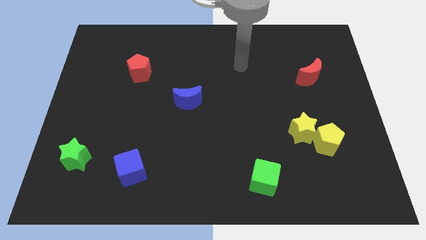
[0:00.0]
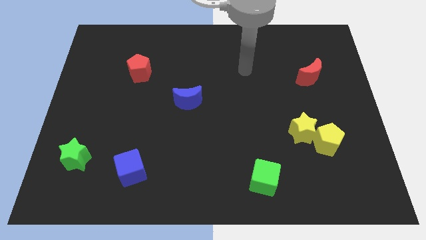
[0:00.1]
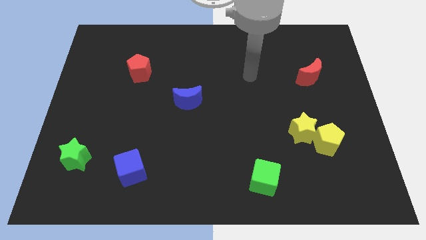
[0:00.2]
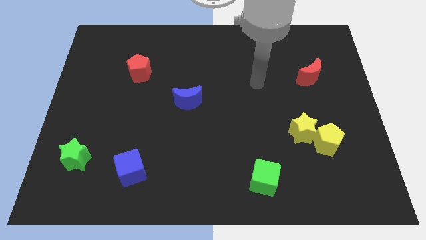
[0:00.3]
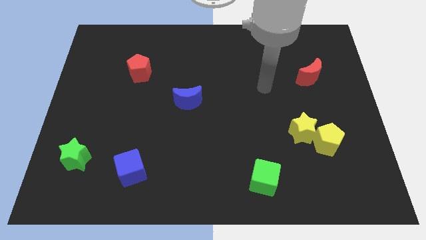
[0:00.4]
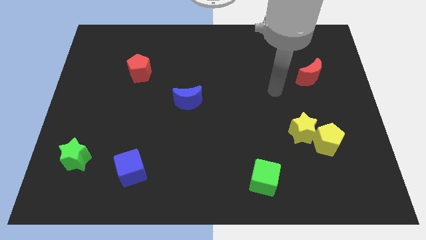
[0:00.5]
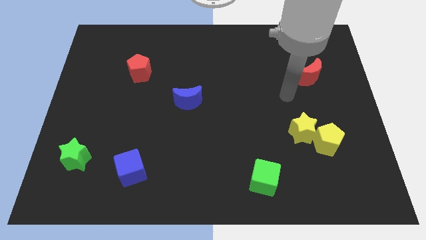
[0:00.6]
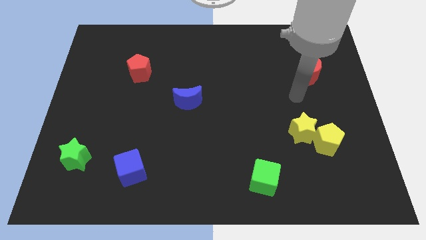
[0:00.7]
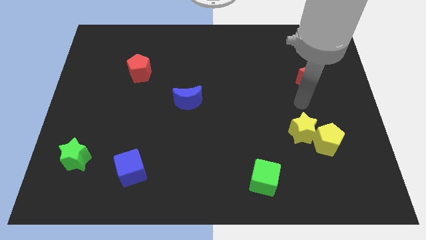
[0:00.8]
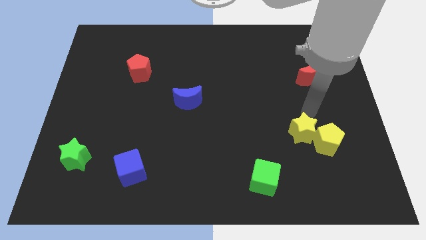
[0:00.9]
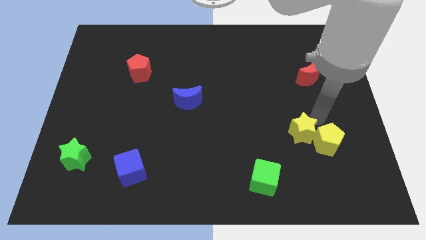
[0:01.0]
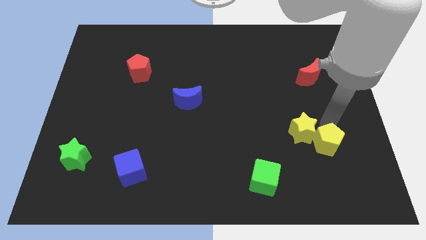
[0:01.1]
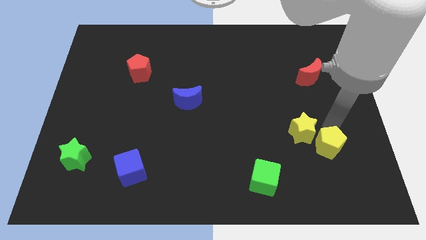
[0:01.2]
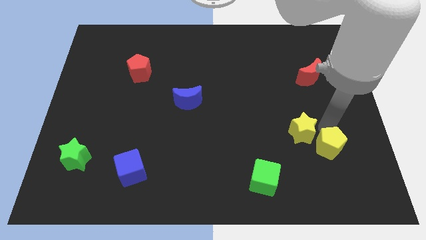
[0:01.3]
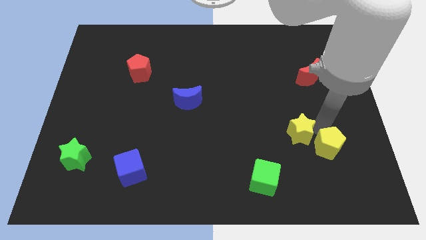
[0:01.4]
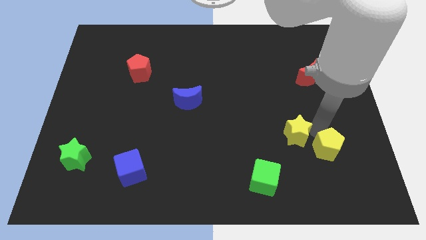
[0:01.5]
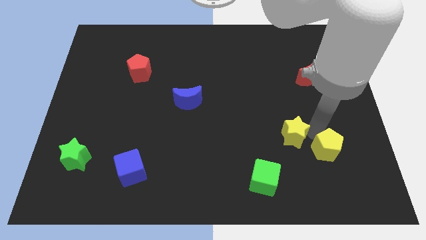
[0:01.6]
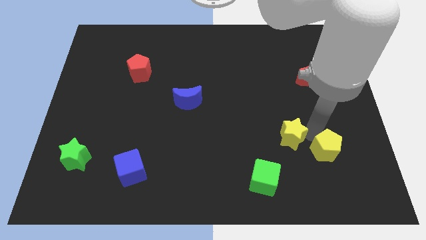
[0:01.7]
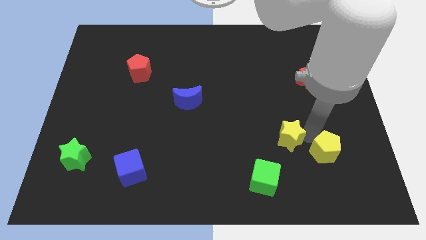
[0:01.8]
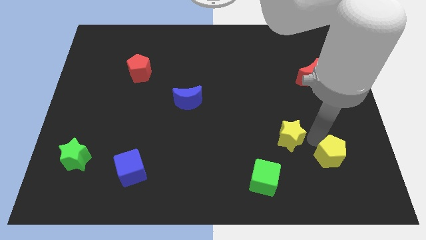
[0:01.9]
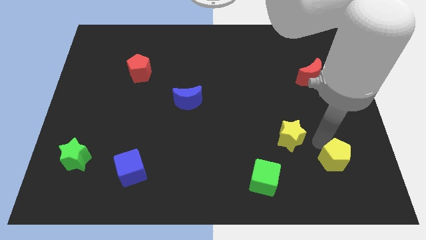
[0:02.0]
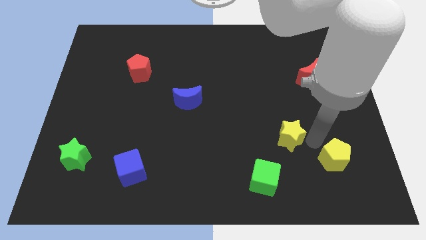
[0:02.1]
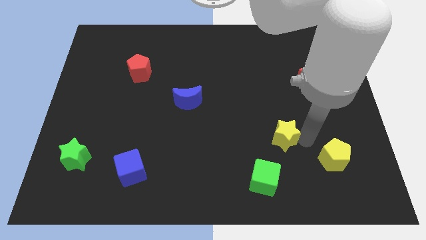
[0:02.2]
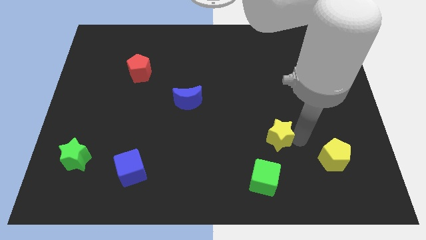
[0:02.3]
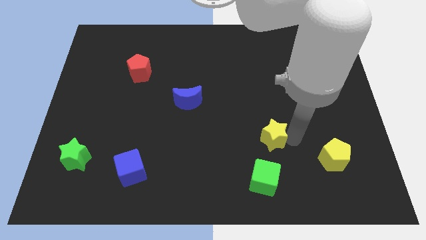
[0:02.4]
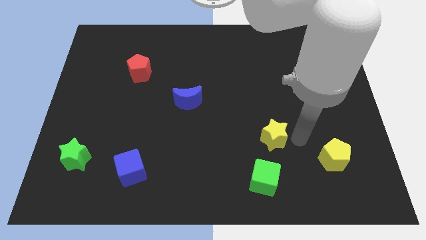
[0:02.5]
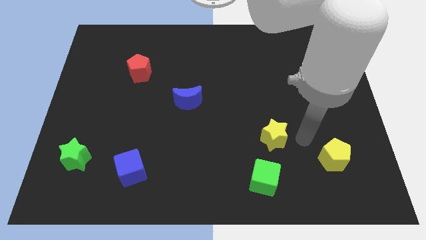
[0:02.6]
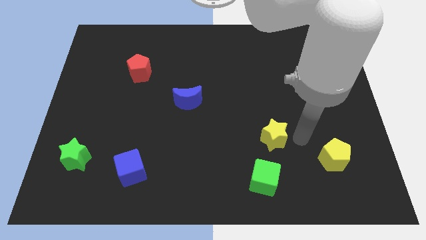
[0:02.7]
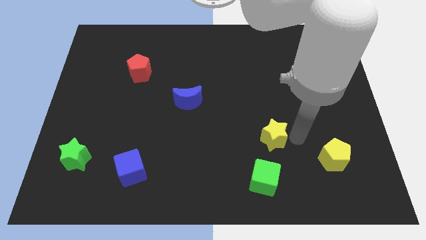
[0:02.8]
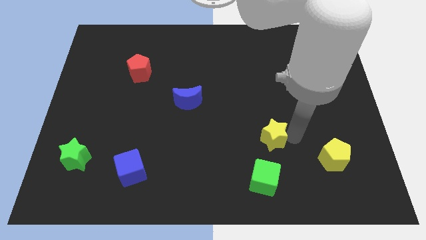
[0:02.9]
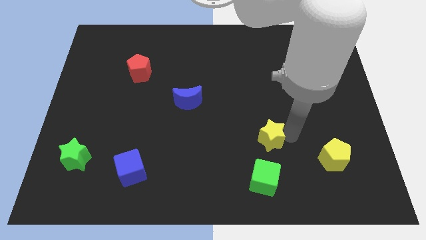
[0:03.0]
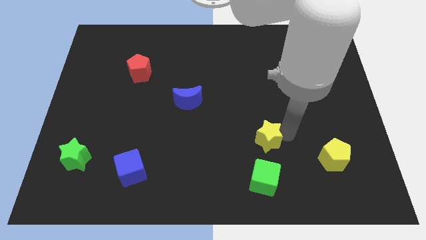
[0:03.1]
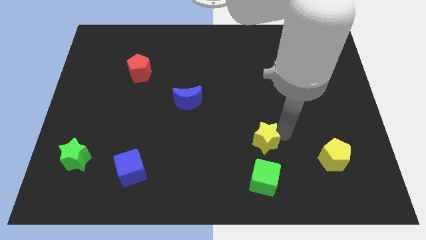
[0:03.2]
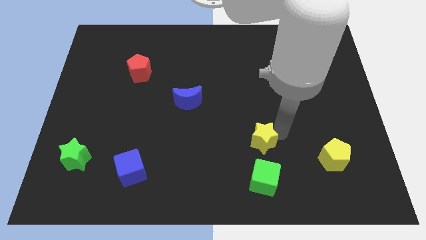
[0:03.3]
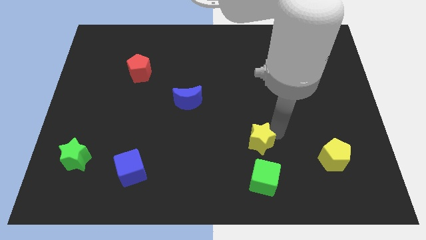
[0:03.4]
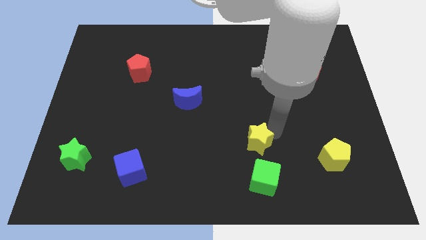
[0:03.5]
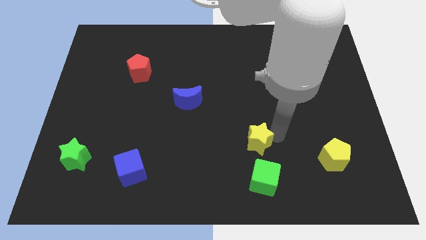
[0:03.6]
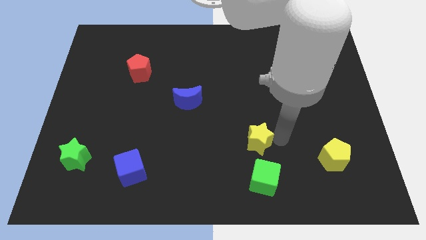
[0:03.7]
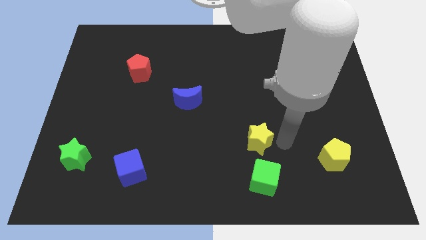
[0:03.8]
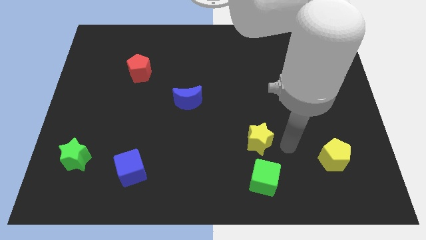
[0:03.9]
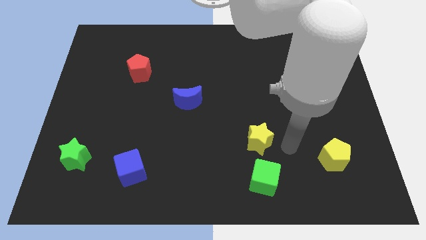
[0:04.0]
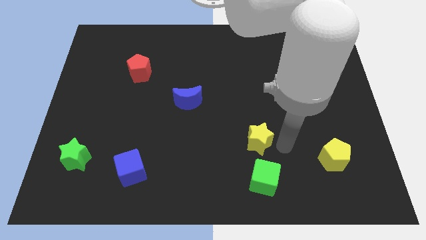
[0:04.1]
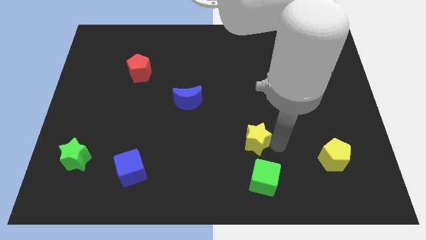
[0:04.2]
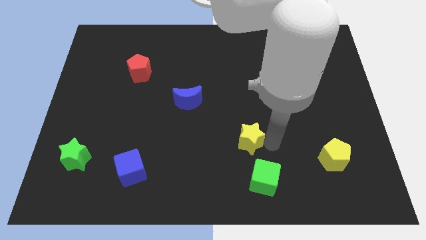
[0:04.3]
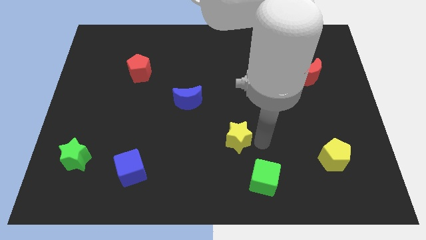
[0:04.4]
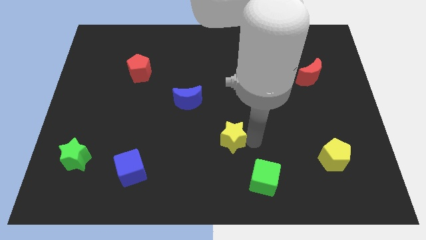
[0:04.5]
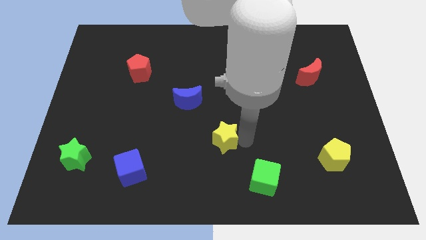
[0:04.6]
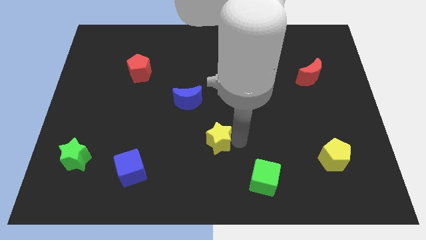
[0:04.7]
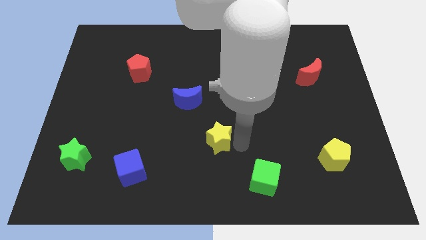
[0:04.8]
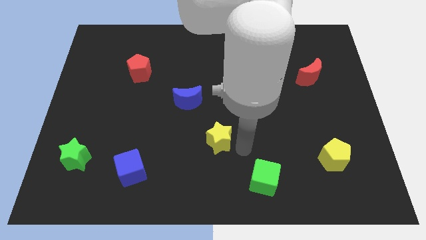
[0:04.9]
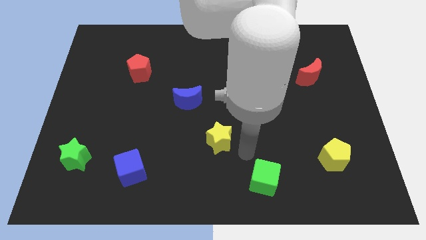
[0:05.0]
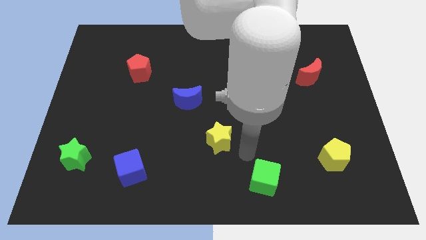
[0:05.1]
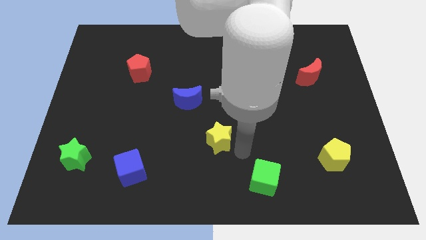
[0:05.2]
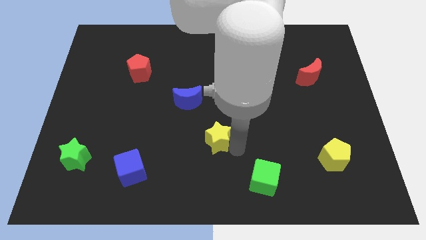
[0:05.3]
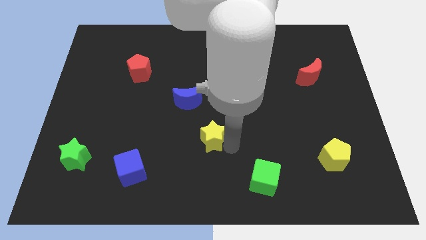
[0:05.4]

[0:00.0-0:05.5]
push the yellow star left

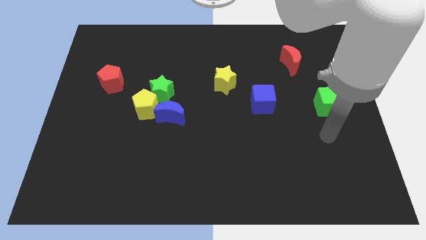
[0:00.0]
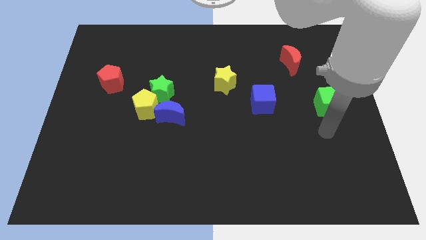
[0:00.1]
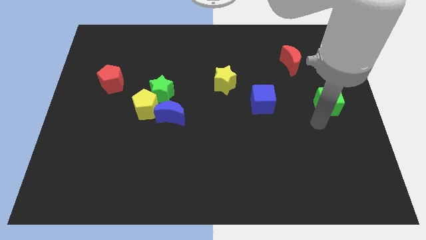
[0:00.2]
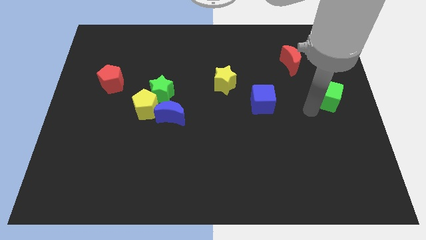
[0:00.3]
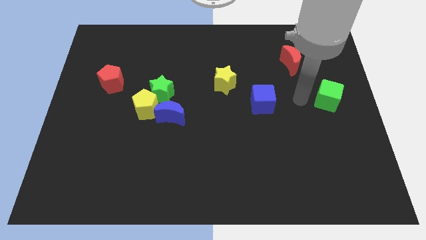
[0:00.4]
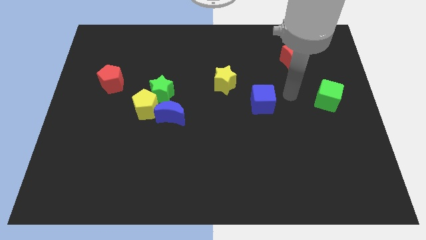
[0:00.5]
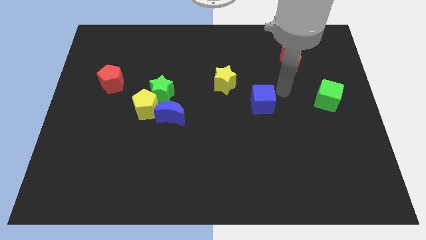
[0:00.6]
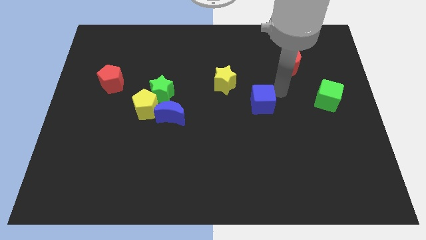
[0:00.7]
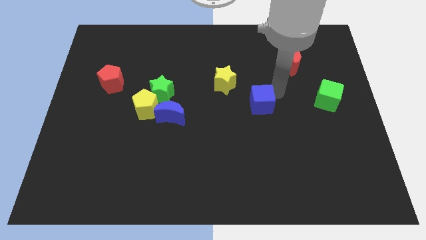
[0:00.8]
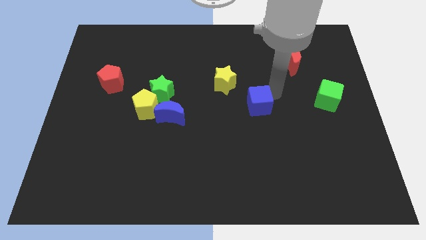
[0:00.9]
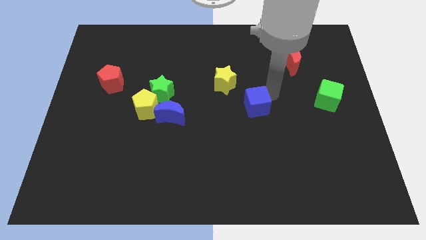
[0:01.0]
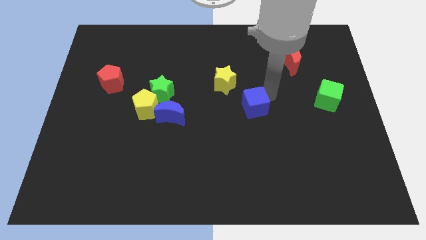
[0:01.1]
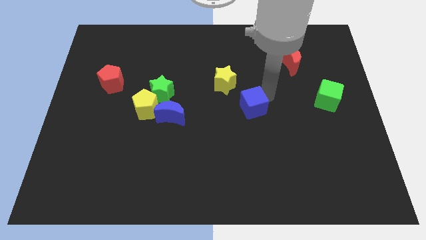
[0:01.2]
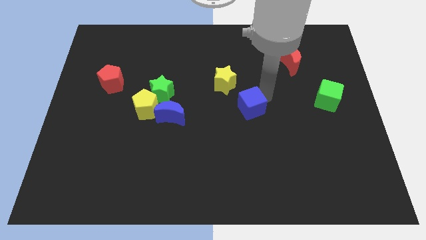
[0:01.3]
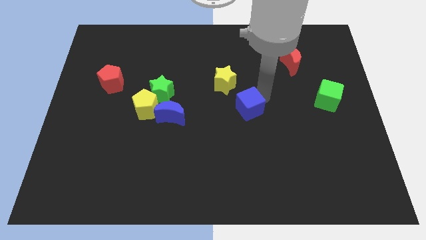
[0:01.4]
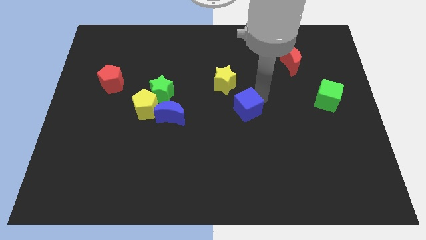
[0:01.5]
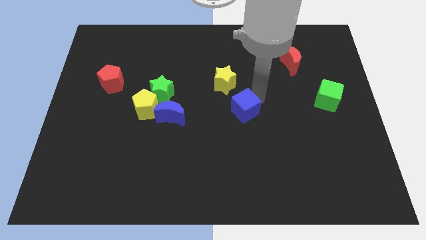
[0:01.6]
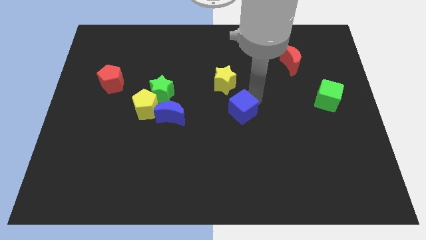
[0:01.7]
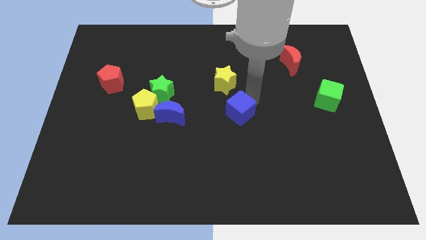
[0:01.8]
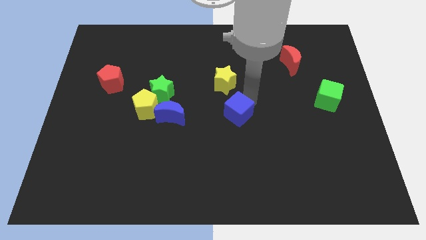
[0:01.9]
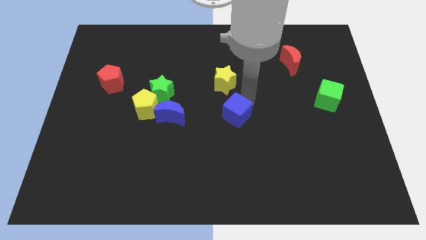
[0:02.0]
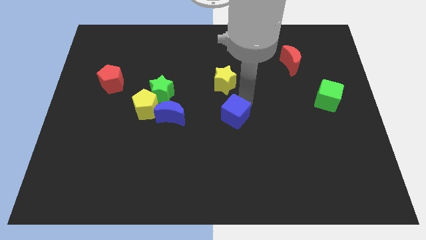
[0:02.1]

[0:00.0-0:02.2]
push the blue cube downwards and to the left diagonally a little

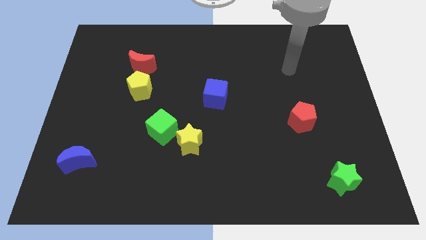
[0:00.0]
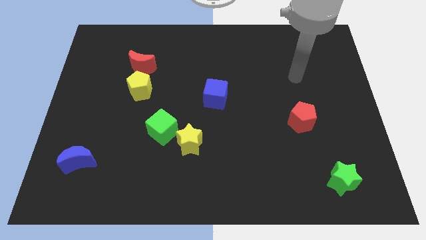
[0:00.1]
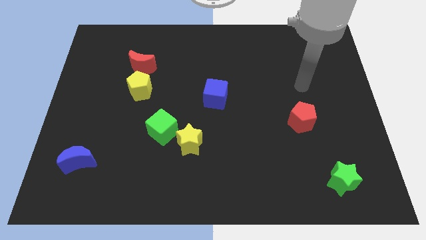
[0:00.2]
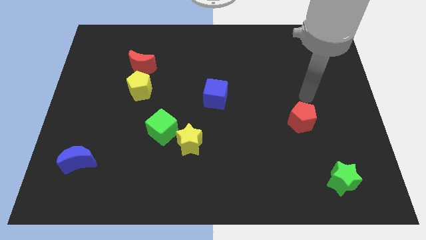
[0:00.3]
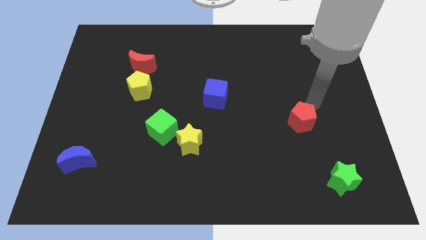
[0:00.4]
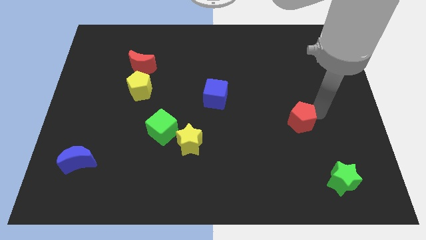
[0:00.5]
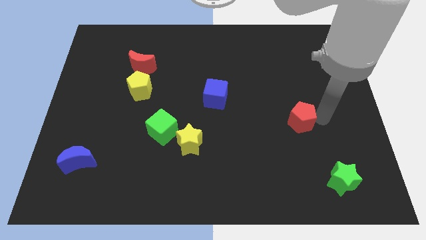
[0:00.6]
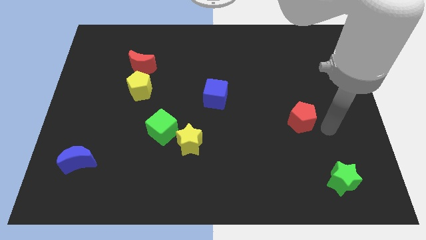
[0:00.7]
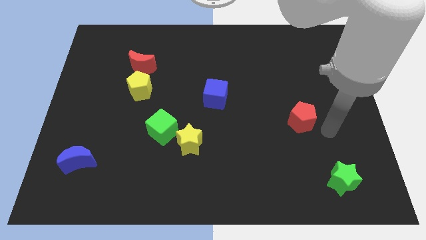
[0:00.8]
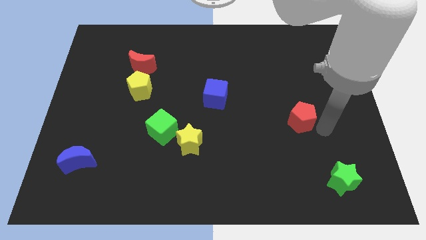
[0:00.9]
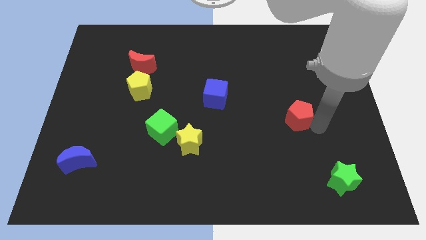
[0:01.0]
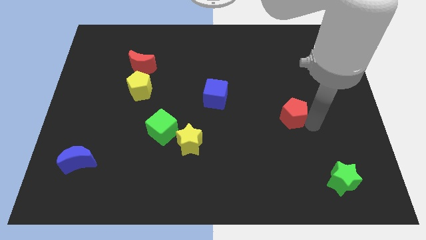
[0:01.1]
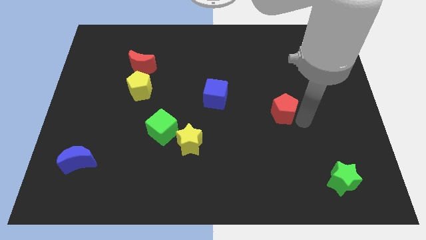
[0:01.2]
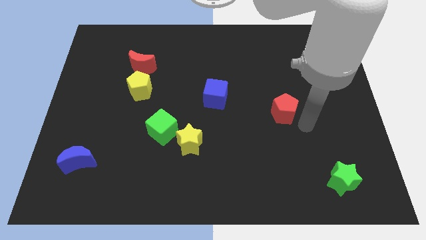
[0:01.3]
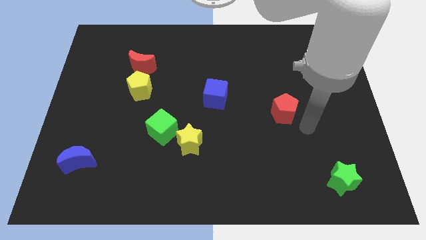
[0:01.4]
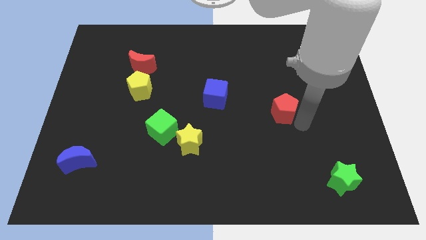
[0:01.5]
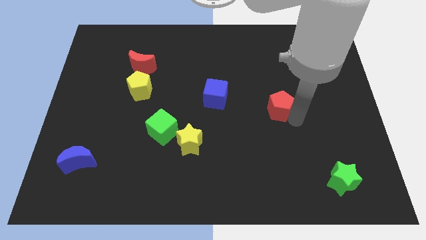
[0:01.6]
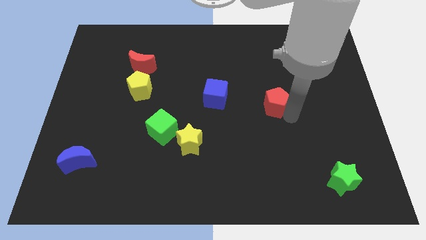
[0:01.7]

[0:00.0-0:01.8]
slide the red pentagon upwards and left slightly
